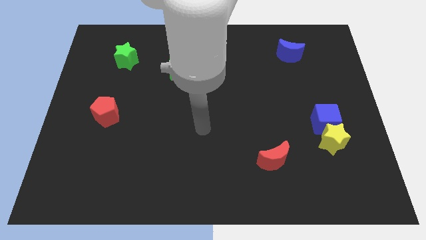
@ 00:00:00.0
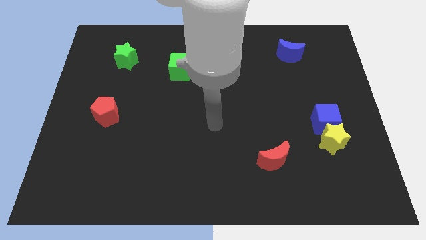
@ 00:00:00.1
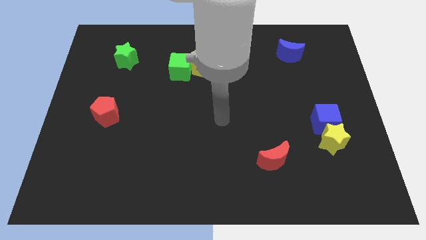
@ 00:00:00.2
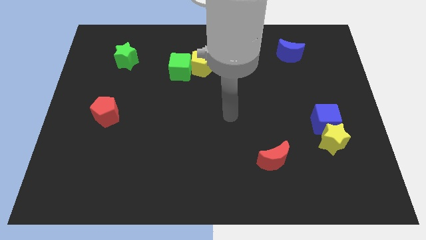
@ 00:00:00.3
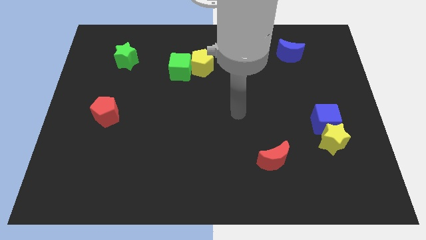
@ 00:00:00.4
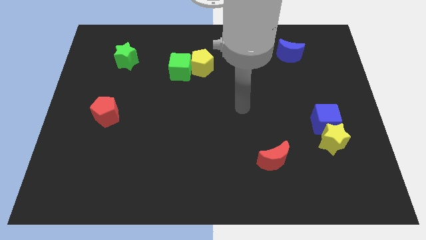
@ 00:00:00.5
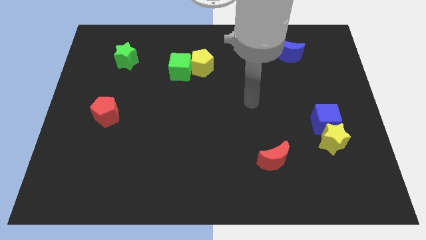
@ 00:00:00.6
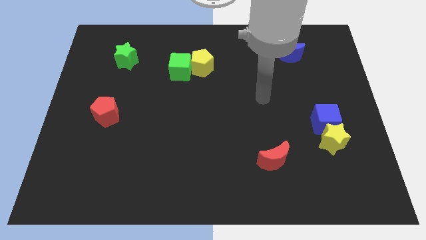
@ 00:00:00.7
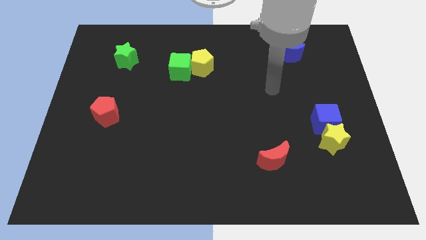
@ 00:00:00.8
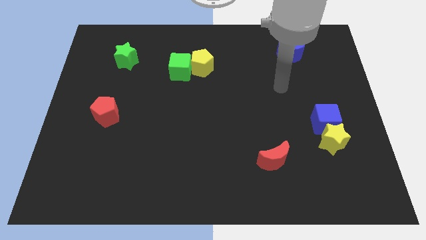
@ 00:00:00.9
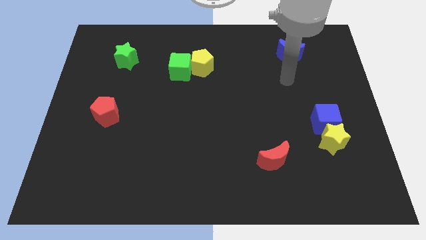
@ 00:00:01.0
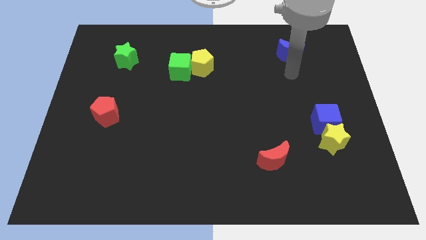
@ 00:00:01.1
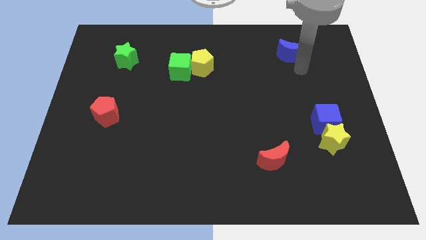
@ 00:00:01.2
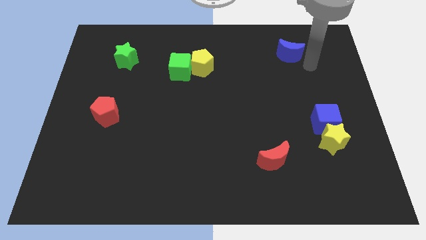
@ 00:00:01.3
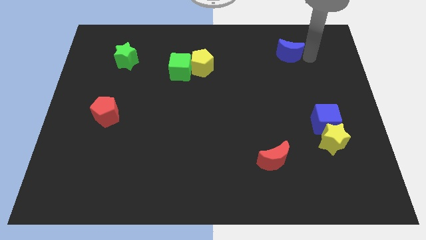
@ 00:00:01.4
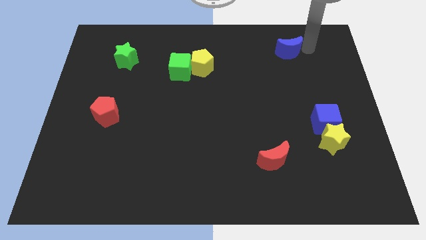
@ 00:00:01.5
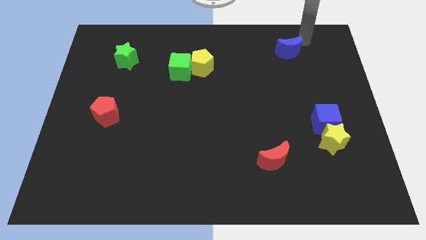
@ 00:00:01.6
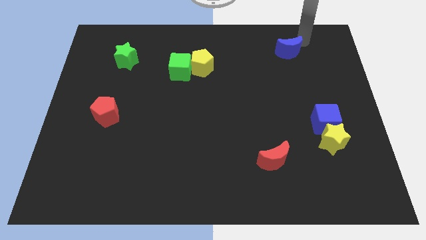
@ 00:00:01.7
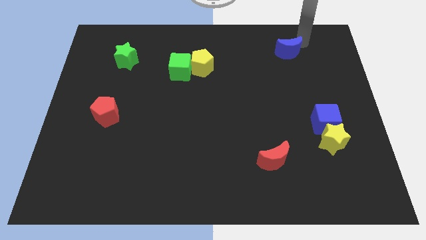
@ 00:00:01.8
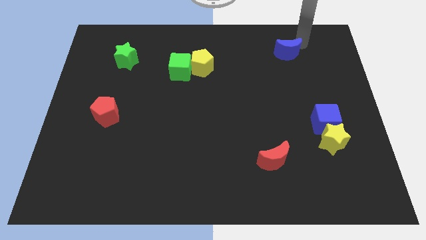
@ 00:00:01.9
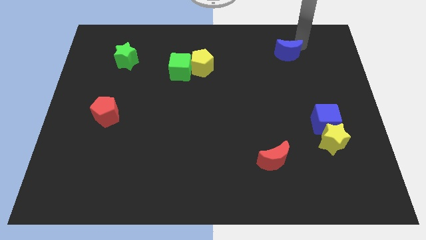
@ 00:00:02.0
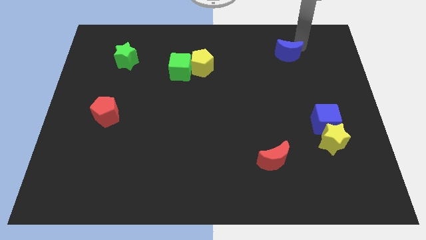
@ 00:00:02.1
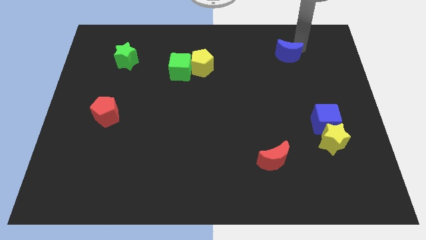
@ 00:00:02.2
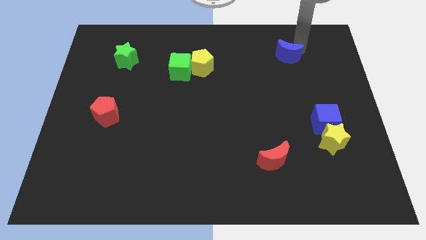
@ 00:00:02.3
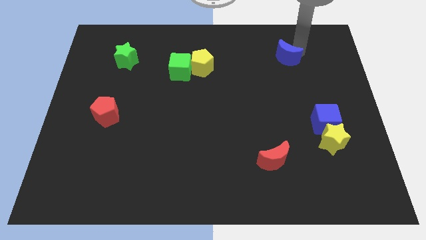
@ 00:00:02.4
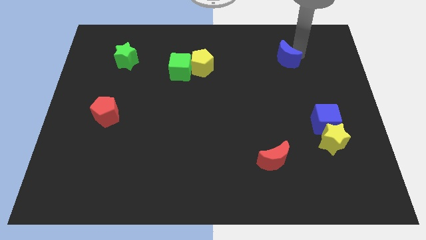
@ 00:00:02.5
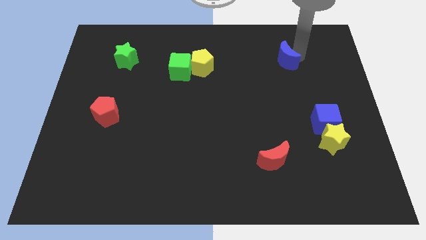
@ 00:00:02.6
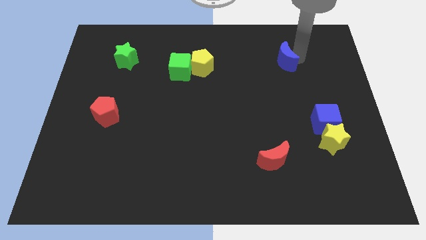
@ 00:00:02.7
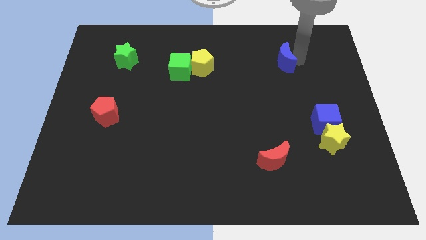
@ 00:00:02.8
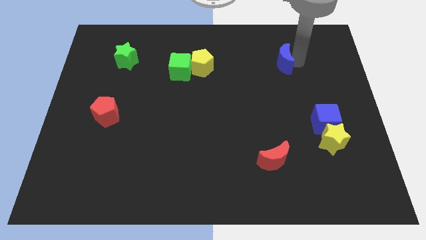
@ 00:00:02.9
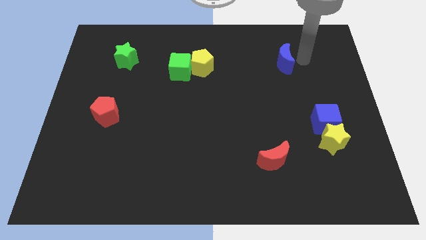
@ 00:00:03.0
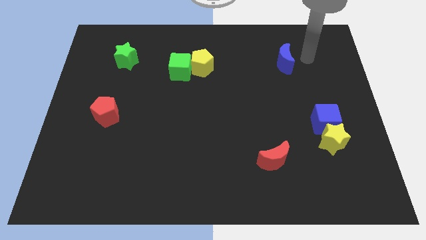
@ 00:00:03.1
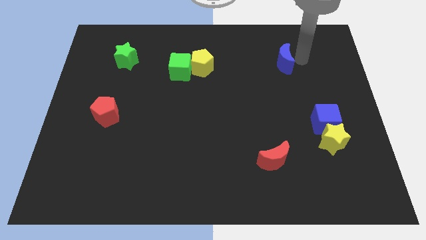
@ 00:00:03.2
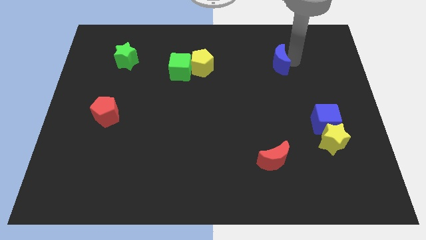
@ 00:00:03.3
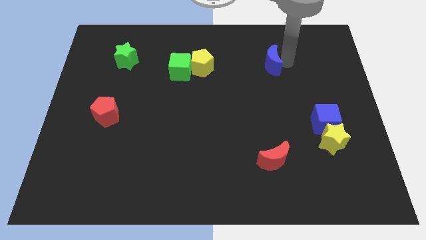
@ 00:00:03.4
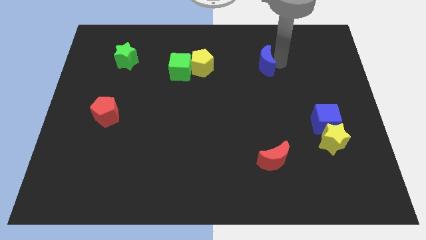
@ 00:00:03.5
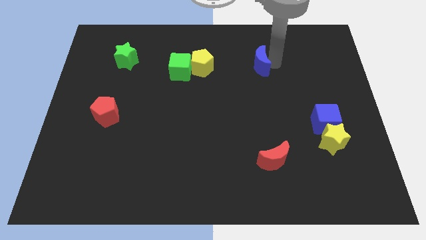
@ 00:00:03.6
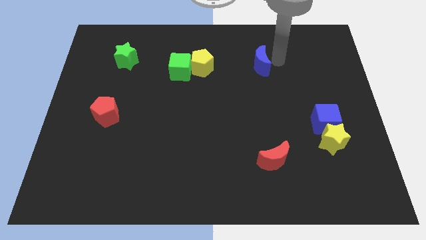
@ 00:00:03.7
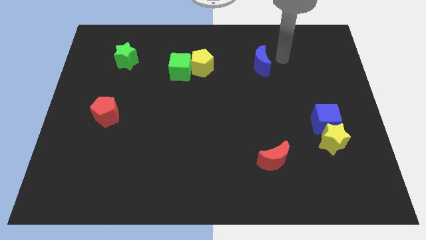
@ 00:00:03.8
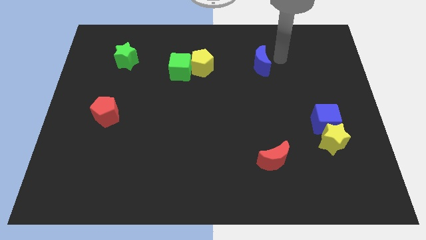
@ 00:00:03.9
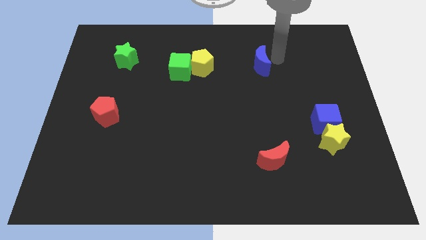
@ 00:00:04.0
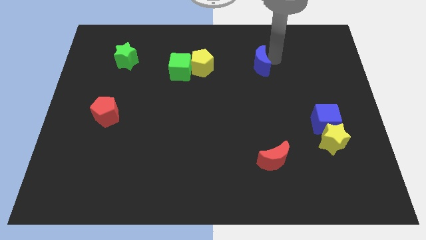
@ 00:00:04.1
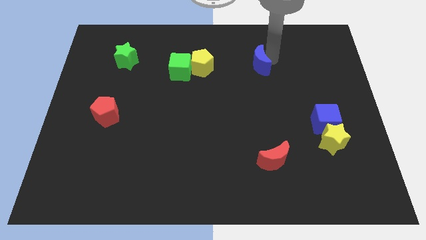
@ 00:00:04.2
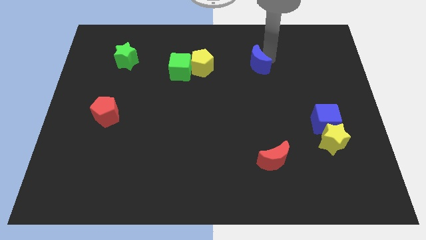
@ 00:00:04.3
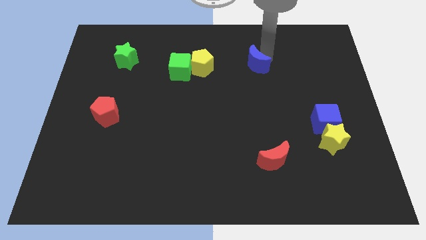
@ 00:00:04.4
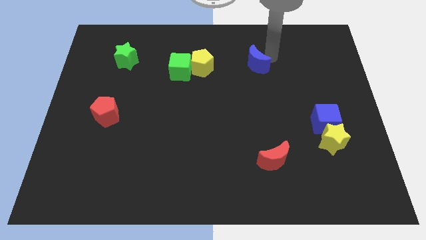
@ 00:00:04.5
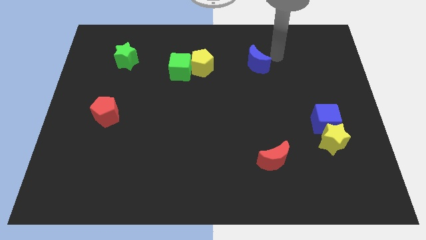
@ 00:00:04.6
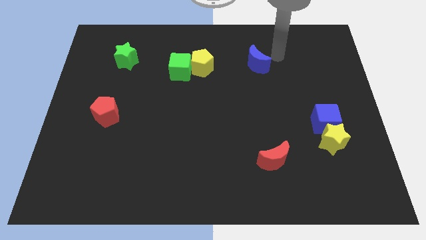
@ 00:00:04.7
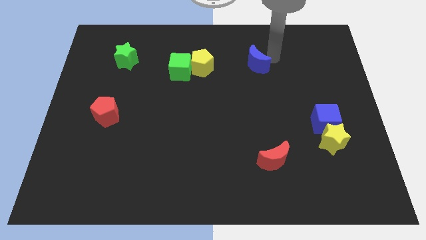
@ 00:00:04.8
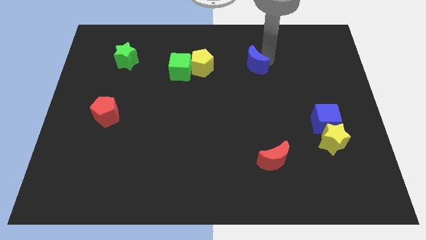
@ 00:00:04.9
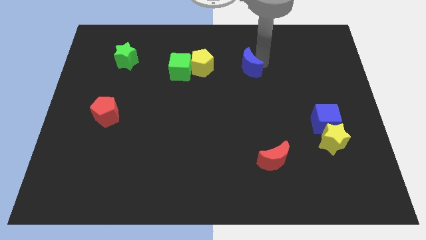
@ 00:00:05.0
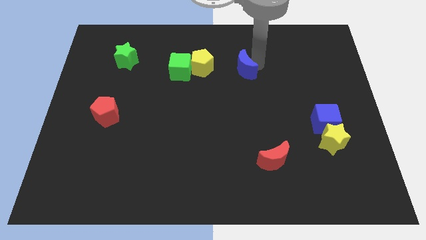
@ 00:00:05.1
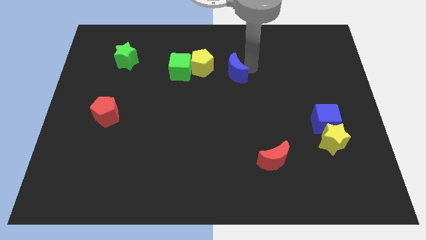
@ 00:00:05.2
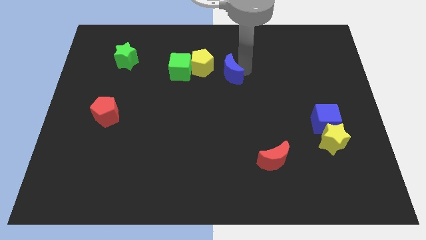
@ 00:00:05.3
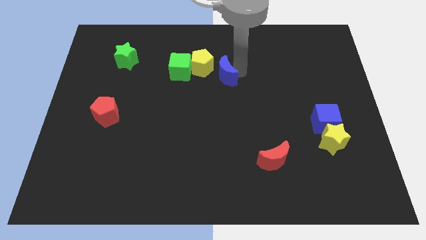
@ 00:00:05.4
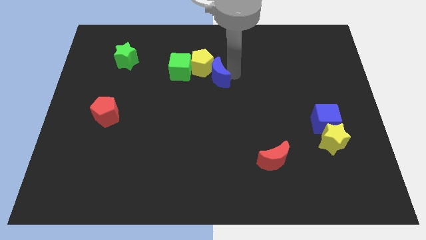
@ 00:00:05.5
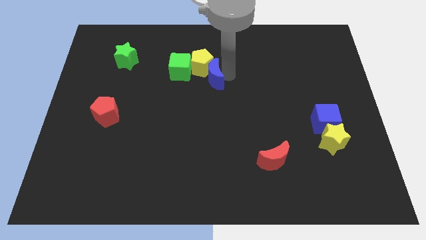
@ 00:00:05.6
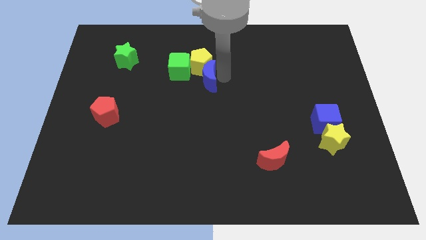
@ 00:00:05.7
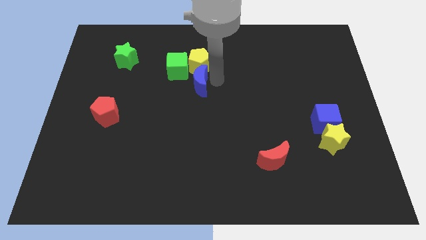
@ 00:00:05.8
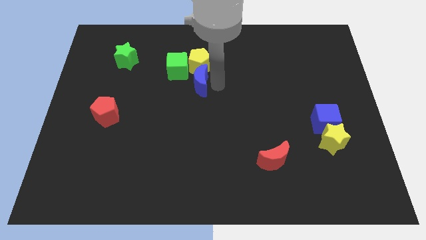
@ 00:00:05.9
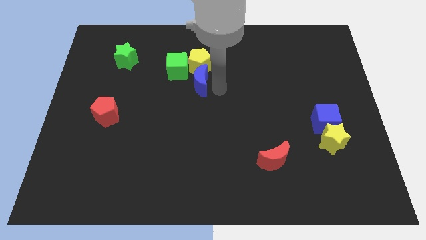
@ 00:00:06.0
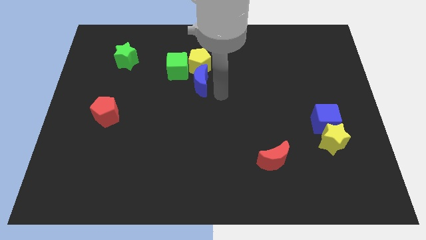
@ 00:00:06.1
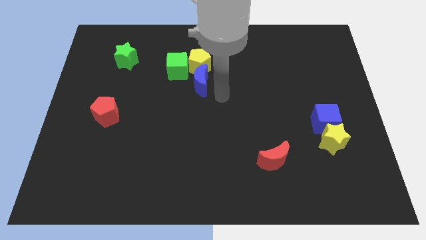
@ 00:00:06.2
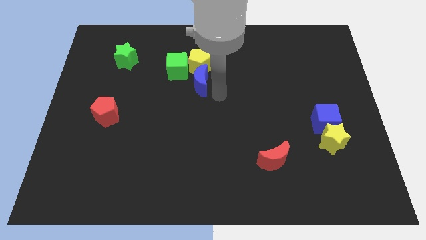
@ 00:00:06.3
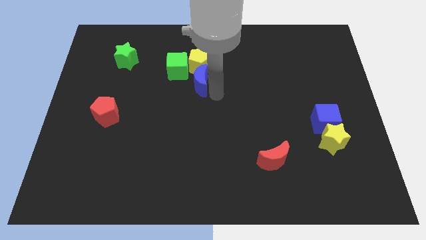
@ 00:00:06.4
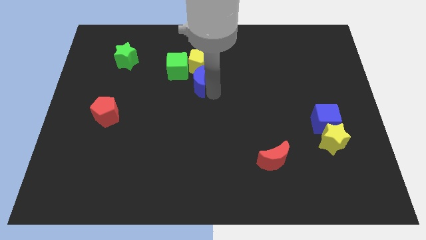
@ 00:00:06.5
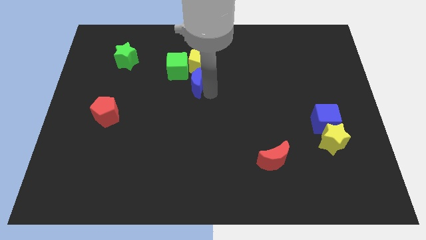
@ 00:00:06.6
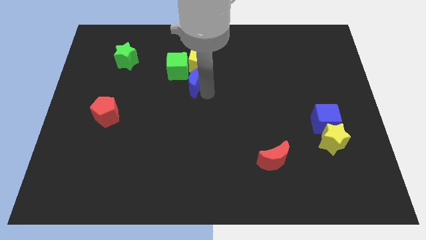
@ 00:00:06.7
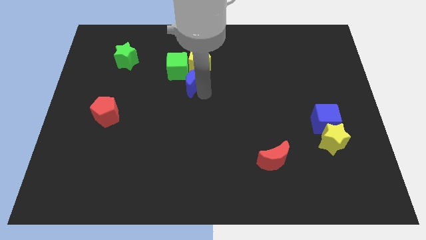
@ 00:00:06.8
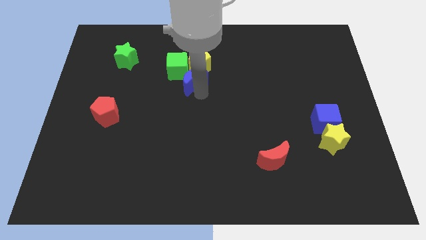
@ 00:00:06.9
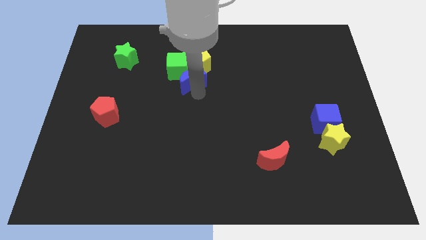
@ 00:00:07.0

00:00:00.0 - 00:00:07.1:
move the blue moon next to the green cube
